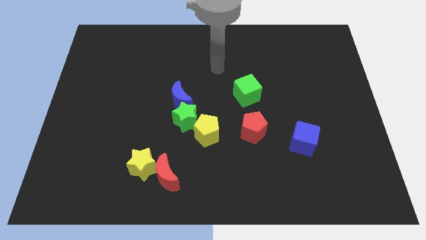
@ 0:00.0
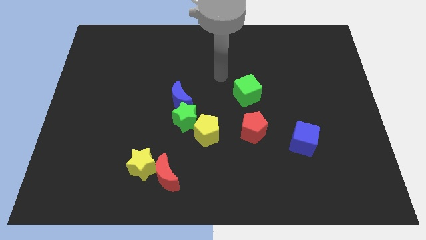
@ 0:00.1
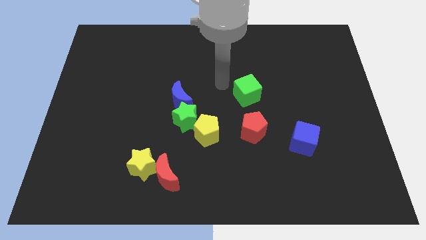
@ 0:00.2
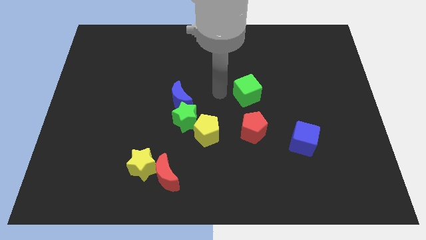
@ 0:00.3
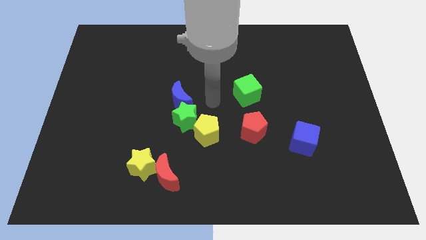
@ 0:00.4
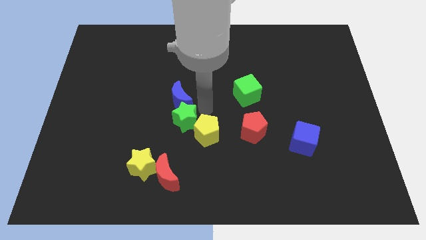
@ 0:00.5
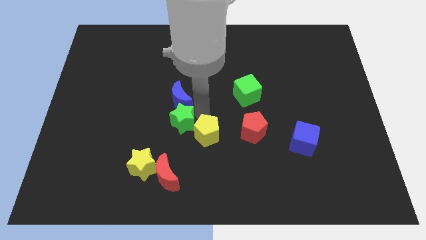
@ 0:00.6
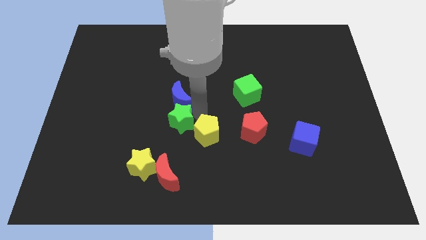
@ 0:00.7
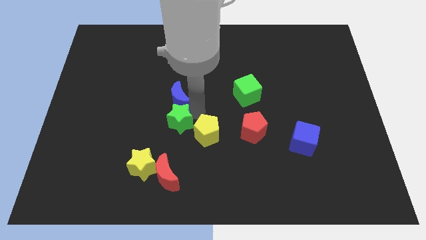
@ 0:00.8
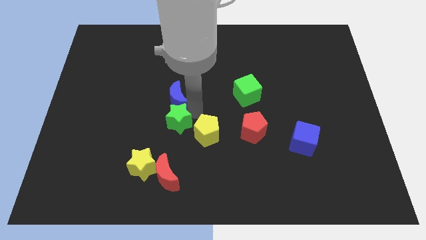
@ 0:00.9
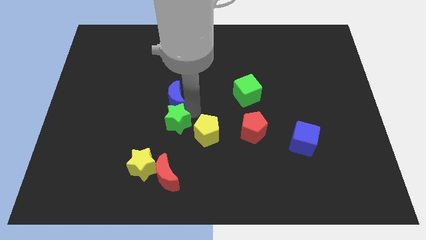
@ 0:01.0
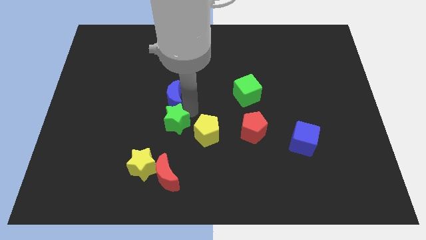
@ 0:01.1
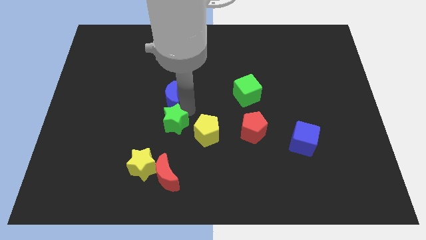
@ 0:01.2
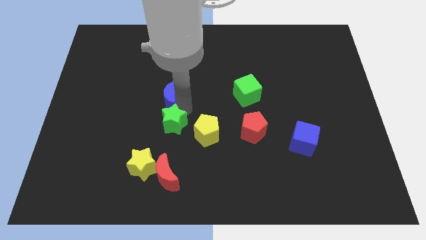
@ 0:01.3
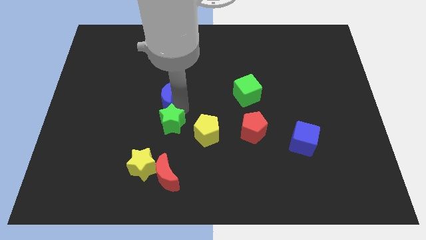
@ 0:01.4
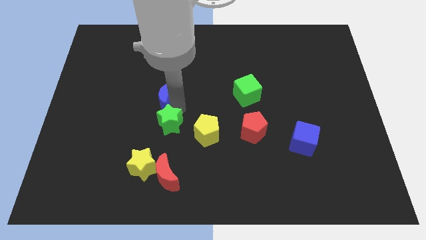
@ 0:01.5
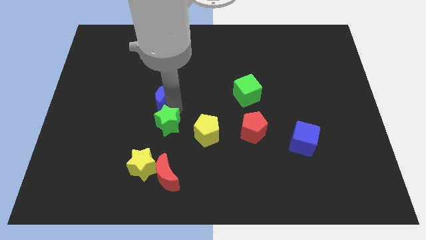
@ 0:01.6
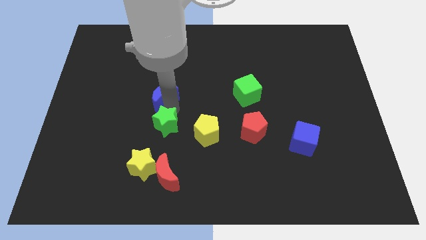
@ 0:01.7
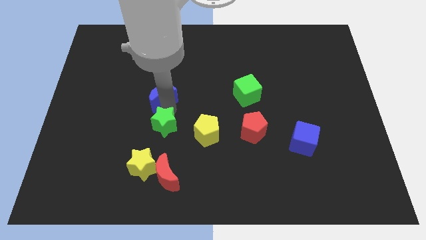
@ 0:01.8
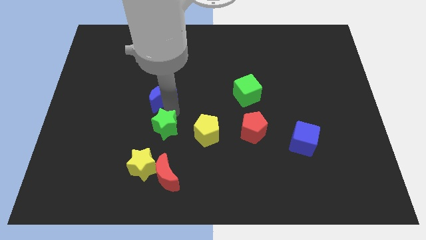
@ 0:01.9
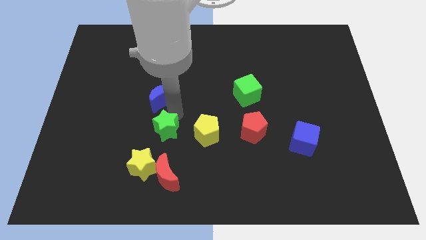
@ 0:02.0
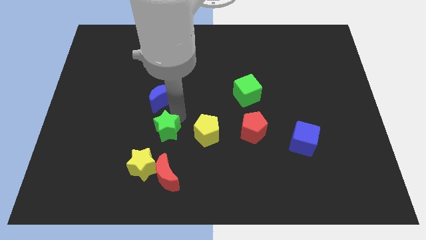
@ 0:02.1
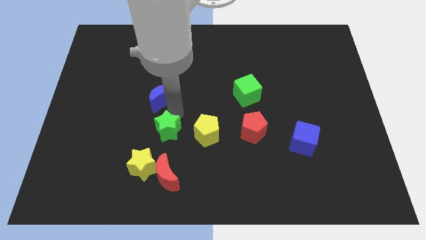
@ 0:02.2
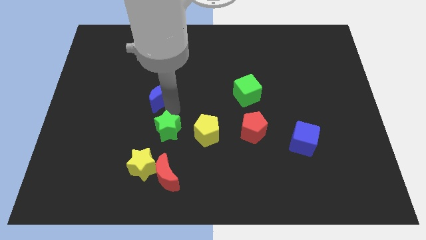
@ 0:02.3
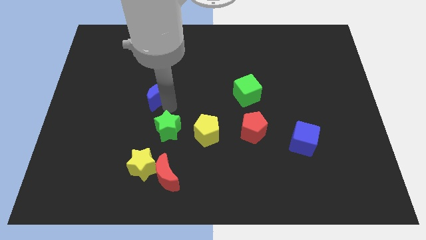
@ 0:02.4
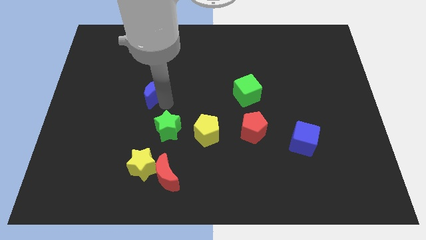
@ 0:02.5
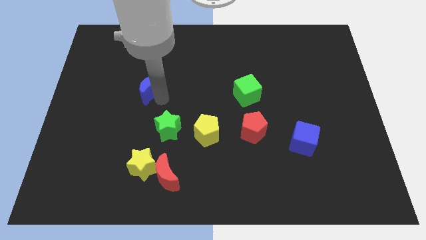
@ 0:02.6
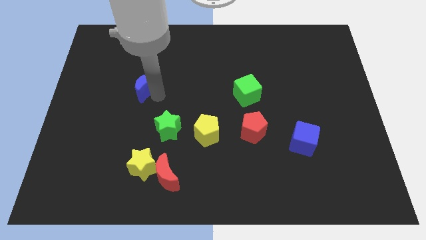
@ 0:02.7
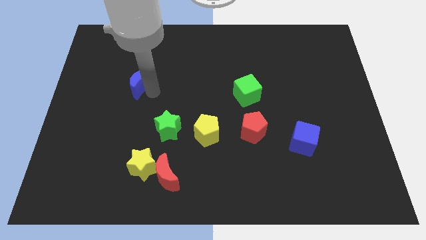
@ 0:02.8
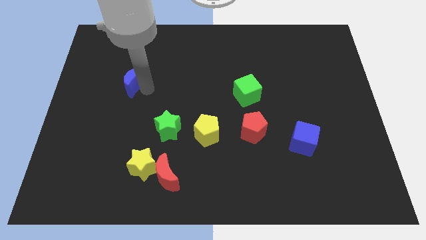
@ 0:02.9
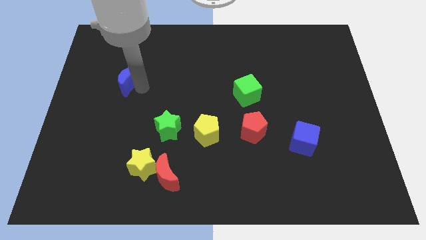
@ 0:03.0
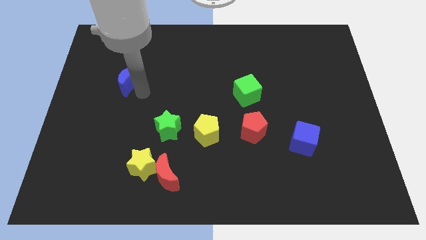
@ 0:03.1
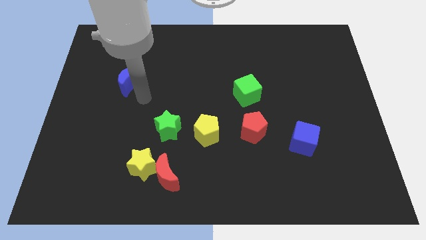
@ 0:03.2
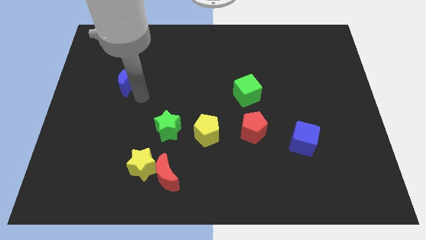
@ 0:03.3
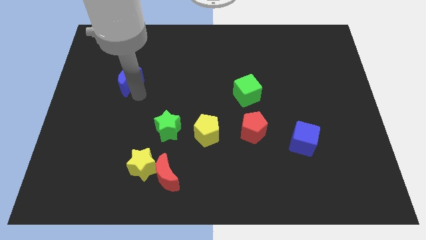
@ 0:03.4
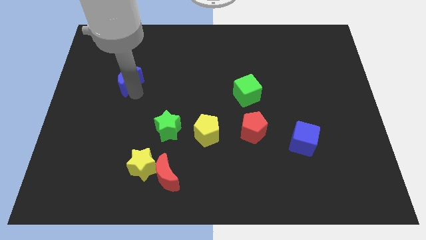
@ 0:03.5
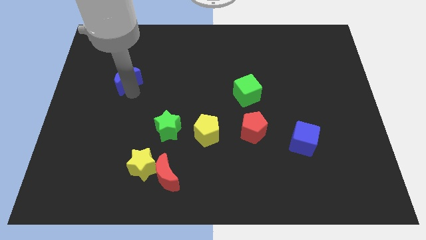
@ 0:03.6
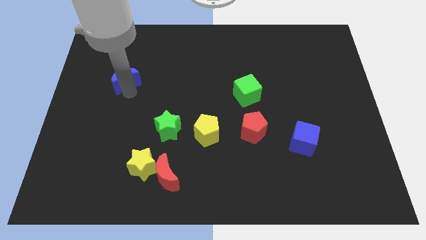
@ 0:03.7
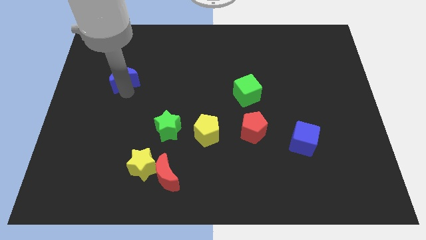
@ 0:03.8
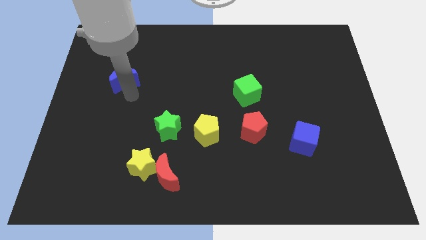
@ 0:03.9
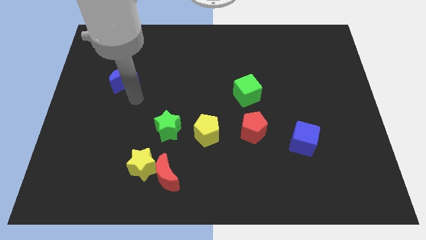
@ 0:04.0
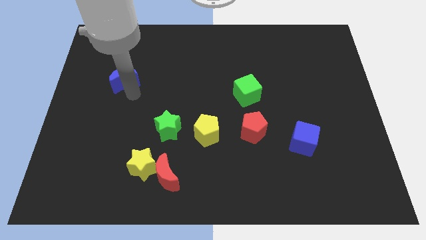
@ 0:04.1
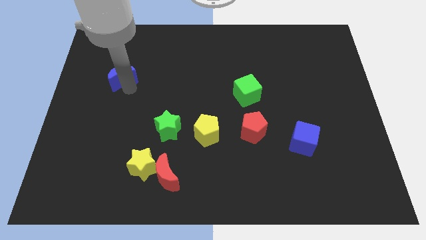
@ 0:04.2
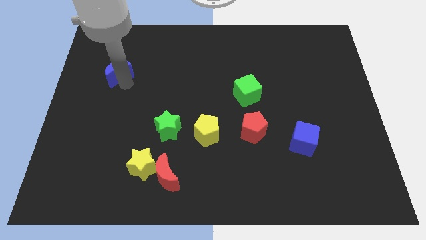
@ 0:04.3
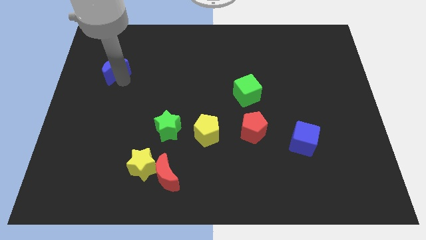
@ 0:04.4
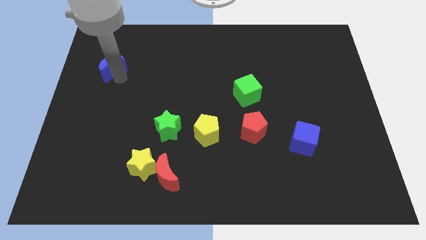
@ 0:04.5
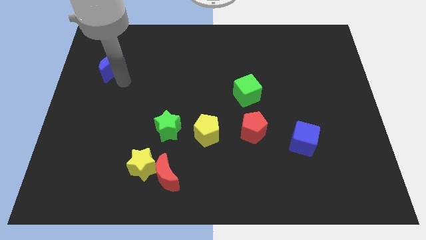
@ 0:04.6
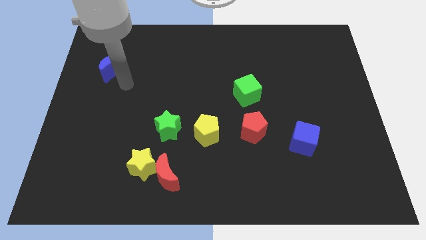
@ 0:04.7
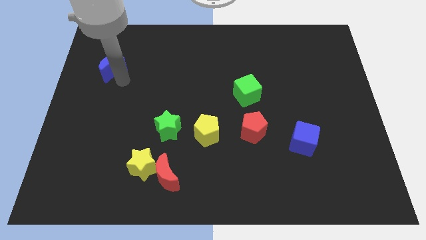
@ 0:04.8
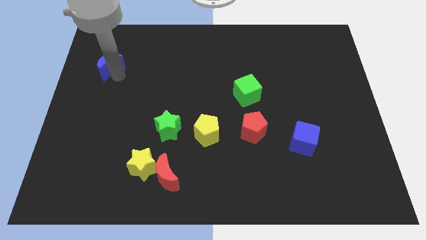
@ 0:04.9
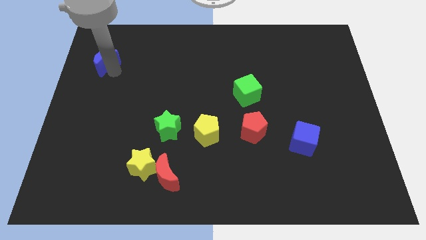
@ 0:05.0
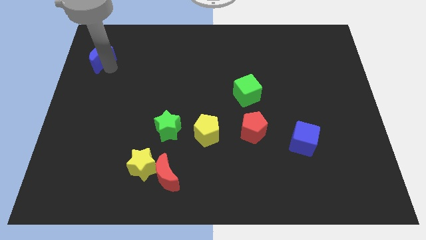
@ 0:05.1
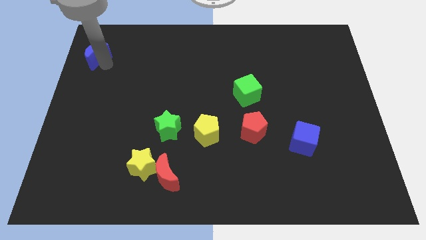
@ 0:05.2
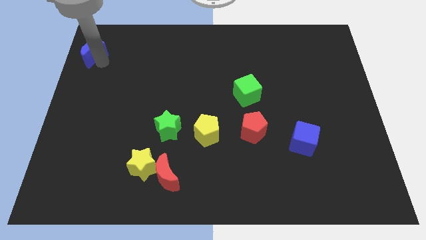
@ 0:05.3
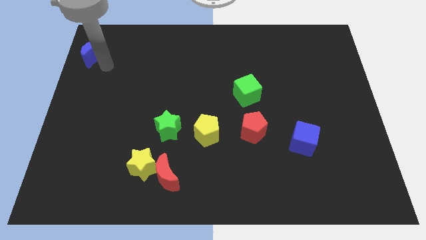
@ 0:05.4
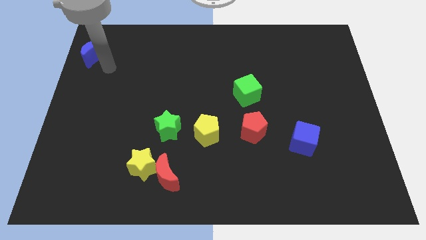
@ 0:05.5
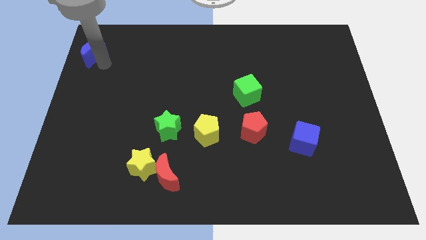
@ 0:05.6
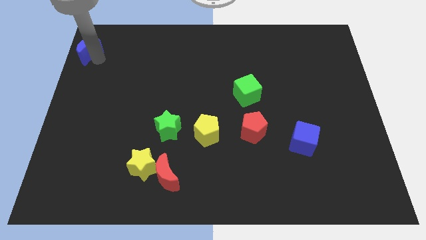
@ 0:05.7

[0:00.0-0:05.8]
push the blue moon to the top left

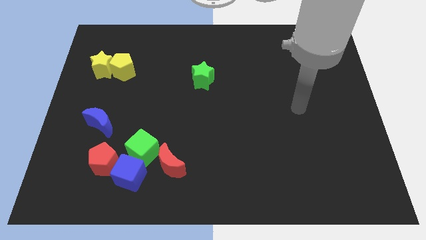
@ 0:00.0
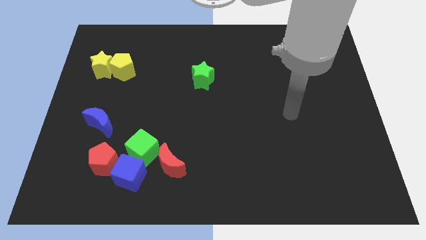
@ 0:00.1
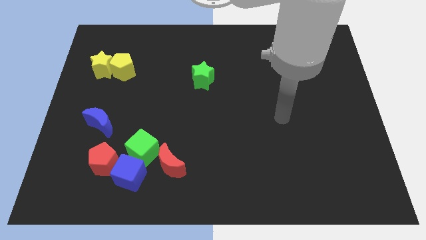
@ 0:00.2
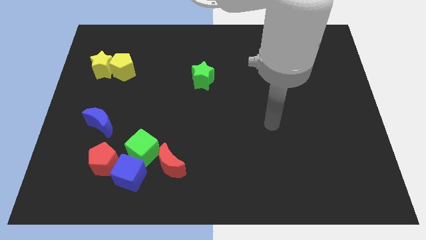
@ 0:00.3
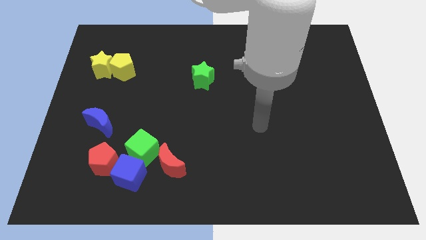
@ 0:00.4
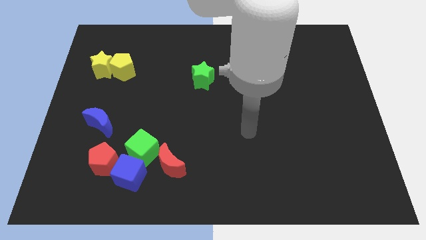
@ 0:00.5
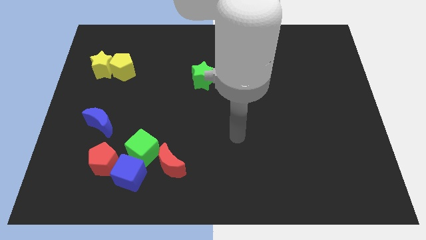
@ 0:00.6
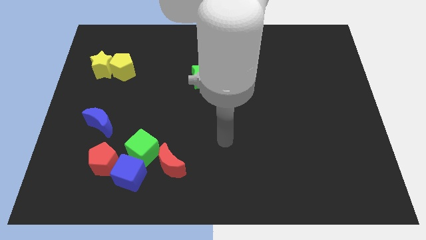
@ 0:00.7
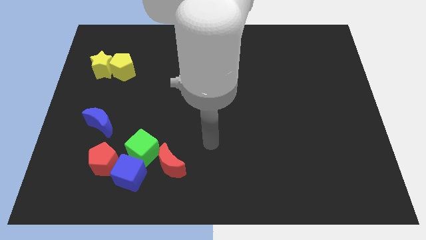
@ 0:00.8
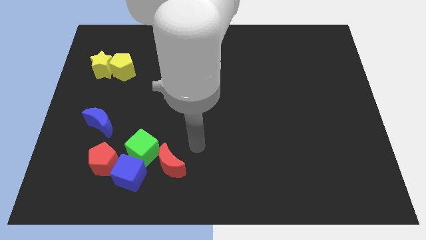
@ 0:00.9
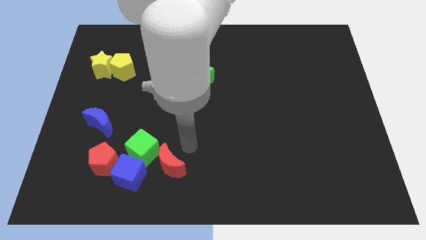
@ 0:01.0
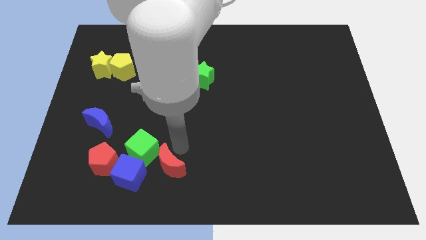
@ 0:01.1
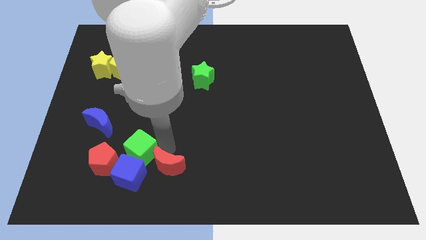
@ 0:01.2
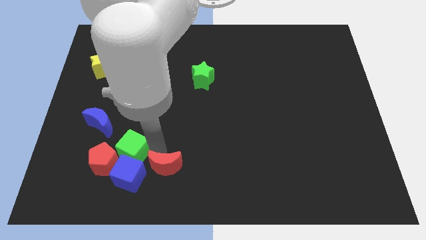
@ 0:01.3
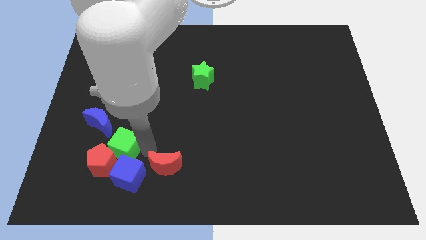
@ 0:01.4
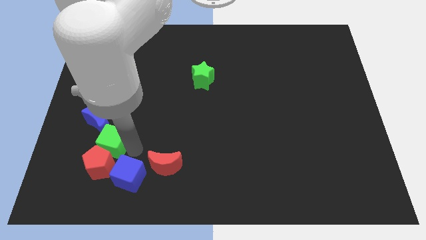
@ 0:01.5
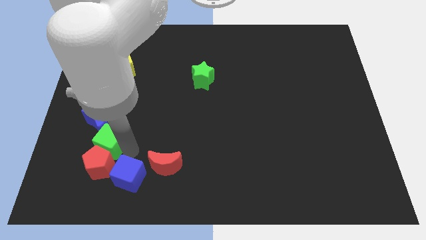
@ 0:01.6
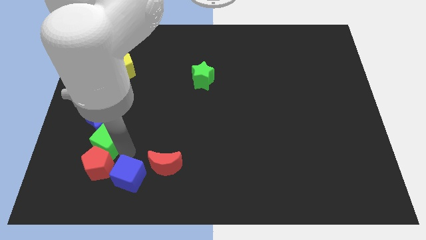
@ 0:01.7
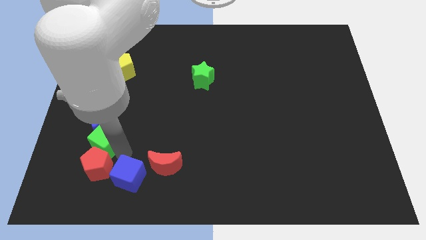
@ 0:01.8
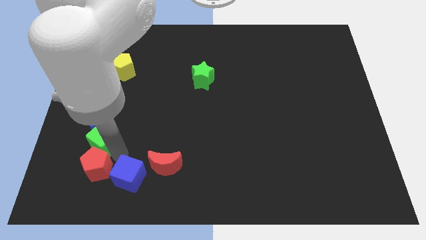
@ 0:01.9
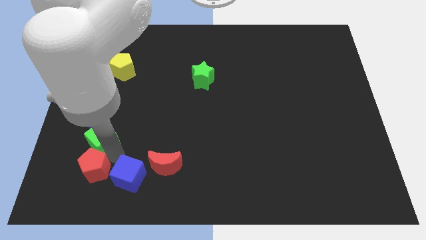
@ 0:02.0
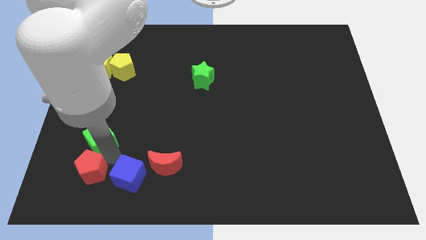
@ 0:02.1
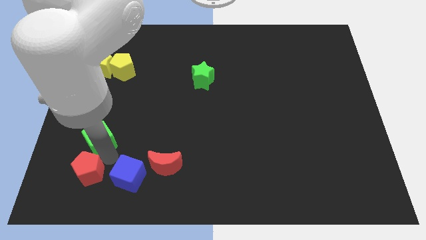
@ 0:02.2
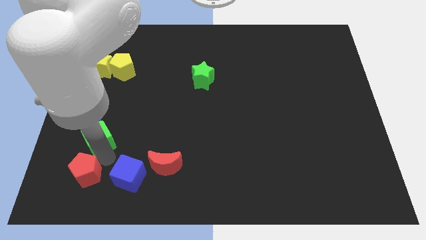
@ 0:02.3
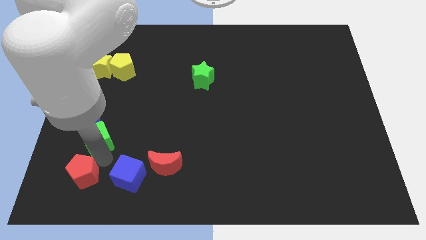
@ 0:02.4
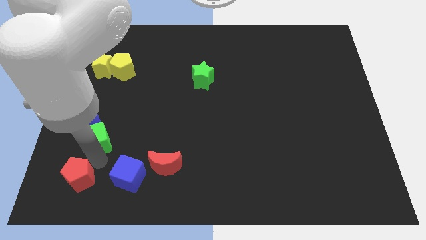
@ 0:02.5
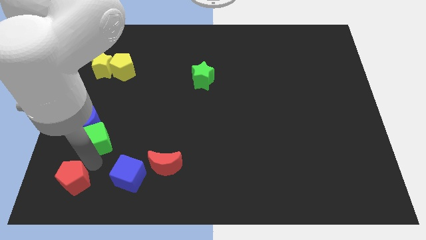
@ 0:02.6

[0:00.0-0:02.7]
put the red pentagon to the lower left corner
